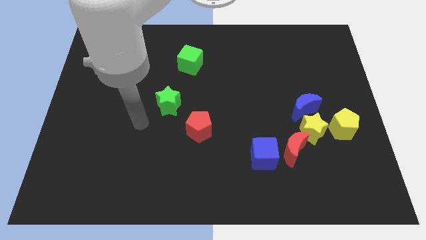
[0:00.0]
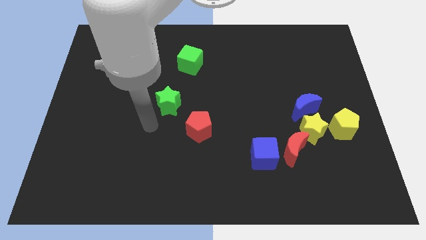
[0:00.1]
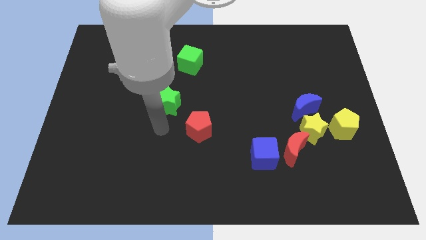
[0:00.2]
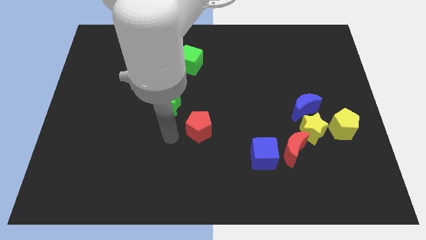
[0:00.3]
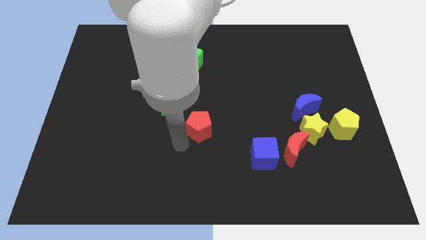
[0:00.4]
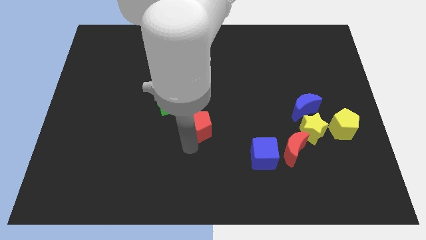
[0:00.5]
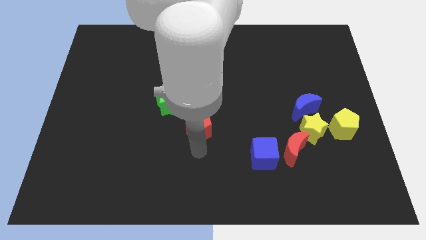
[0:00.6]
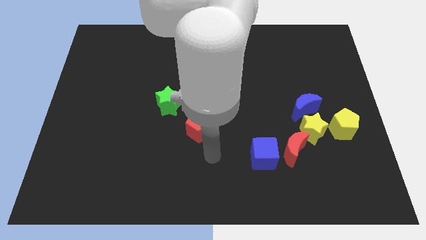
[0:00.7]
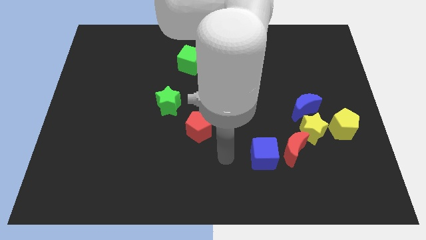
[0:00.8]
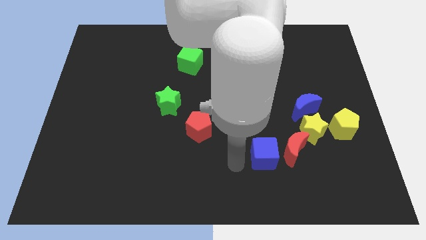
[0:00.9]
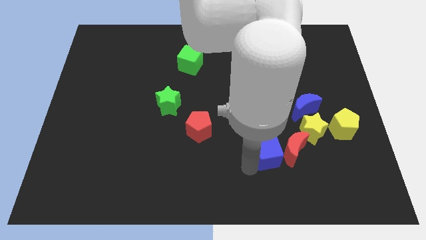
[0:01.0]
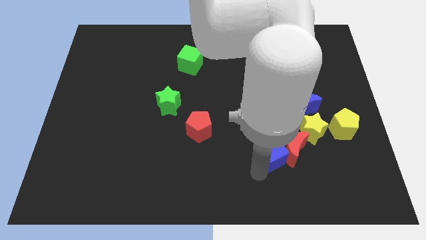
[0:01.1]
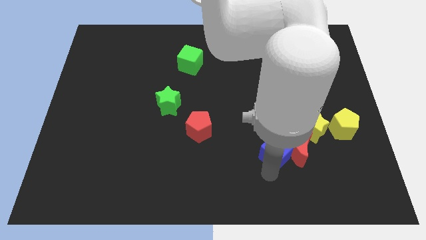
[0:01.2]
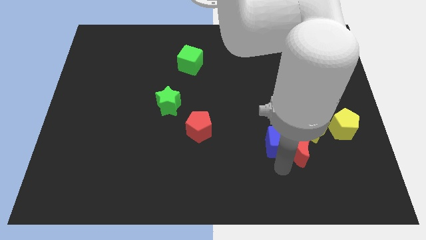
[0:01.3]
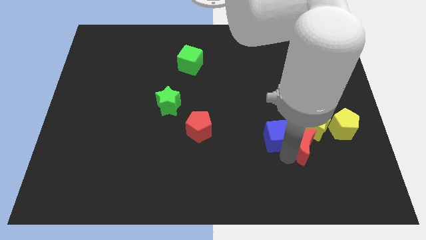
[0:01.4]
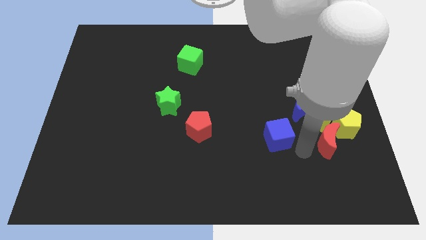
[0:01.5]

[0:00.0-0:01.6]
pull the blue cube apart from the red moon

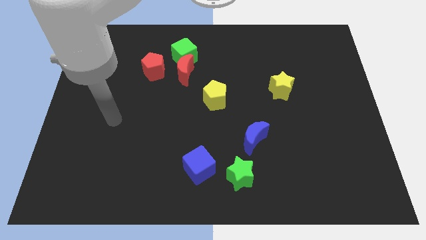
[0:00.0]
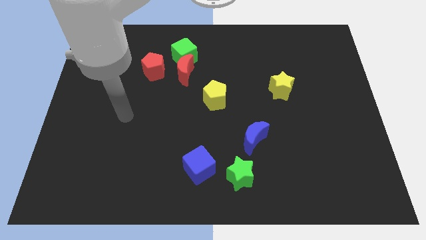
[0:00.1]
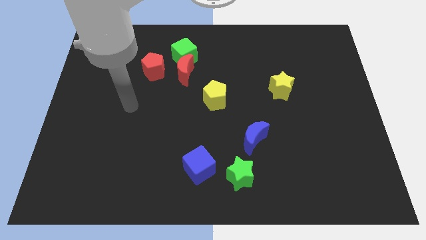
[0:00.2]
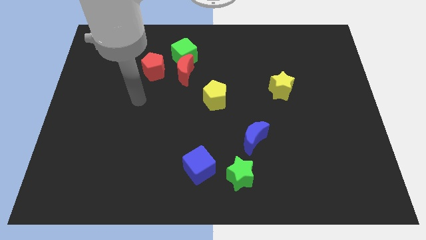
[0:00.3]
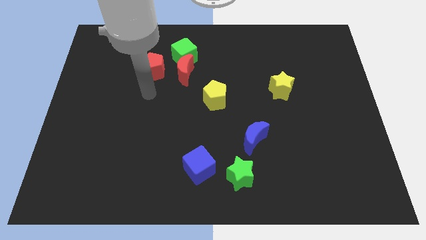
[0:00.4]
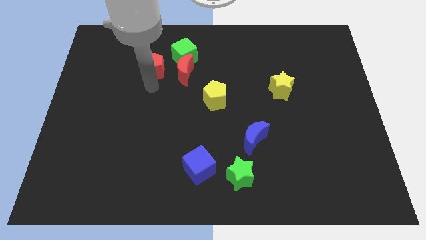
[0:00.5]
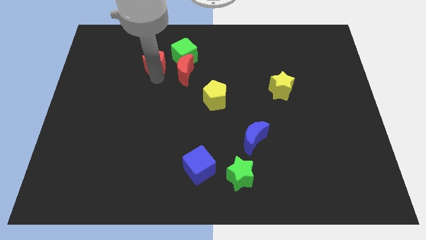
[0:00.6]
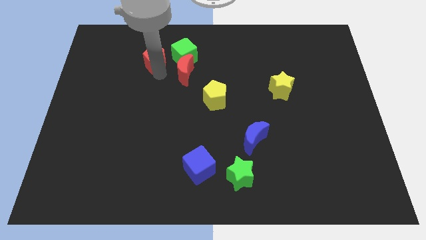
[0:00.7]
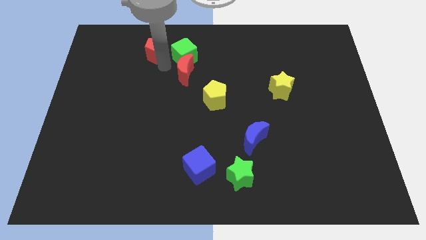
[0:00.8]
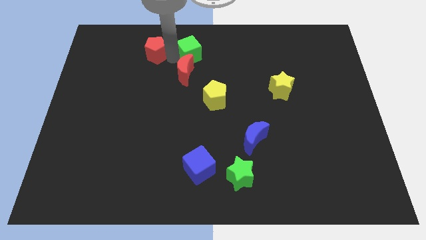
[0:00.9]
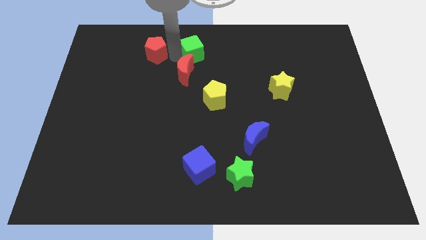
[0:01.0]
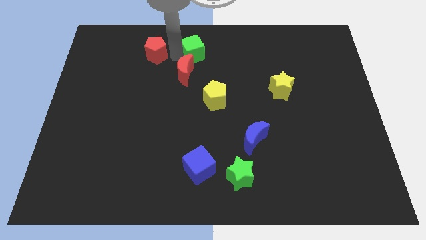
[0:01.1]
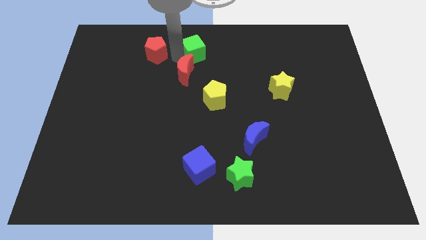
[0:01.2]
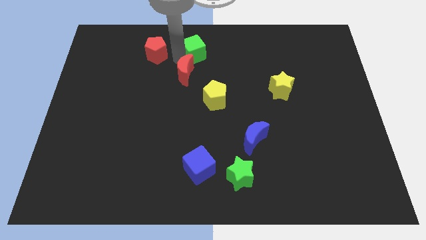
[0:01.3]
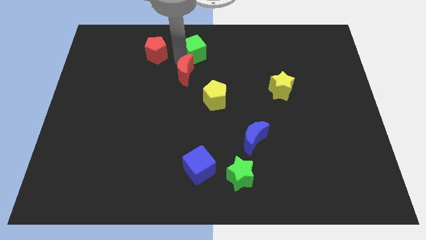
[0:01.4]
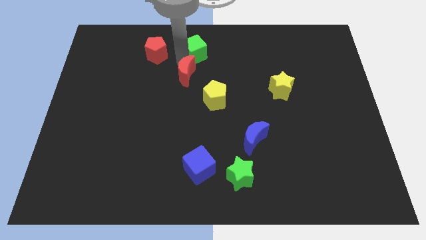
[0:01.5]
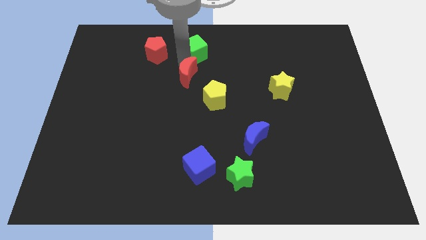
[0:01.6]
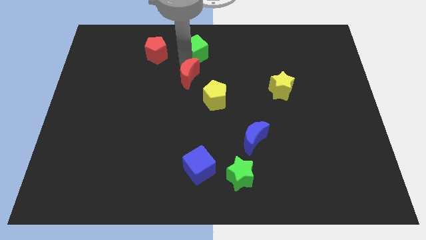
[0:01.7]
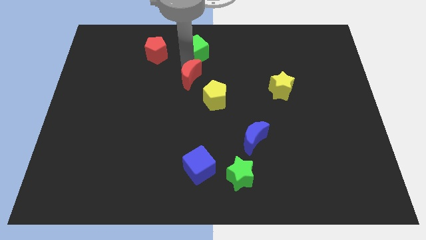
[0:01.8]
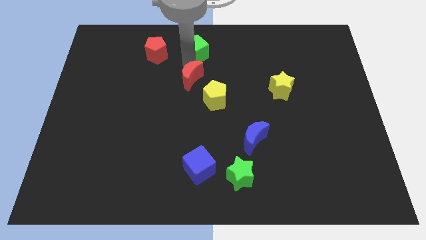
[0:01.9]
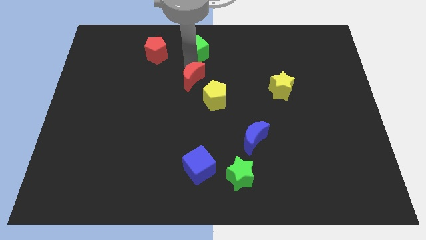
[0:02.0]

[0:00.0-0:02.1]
pull the red moon apart from the green cube and red pentagon

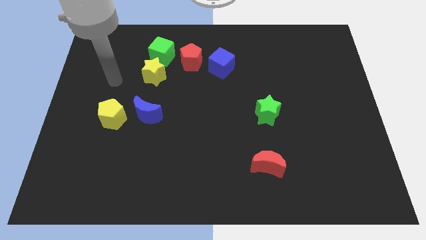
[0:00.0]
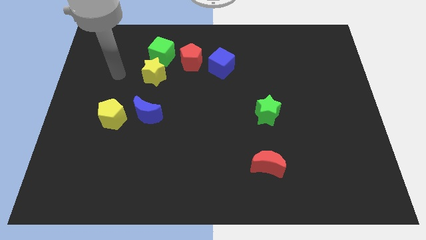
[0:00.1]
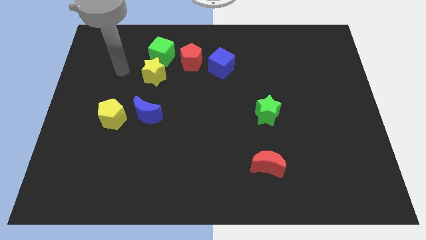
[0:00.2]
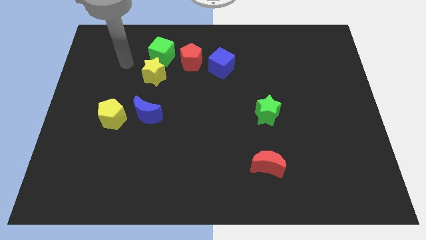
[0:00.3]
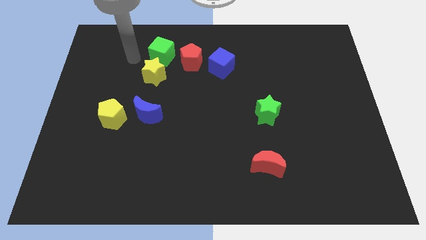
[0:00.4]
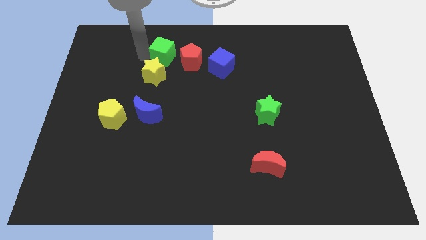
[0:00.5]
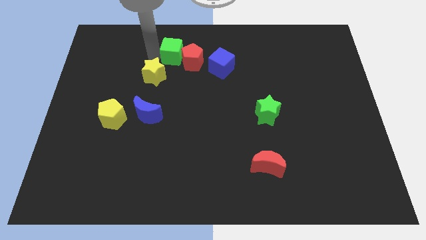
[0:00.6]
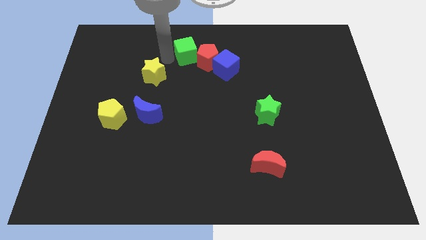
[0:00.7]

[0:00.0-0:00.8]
pull the yellow star apart from the green cube

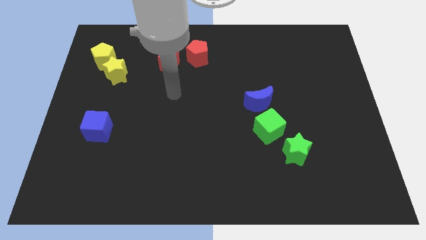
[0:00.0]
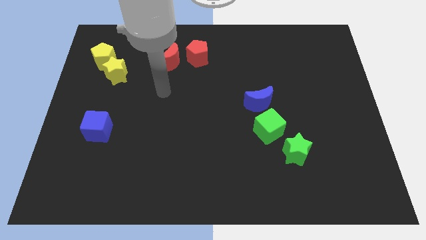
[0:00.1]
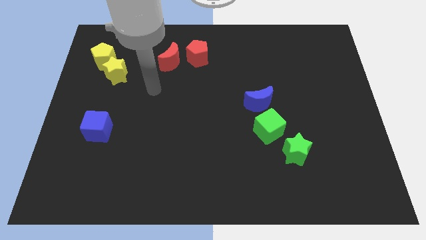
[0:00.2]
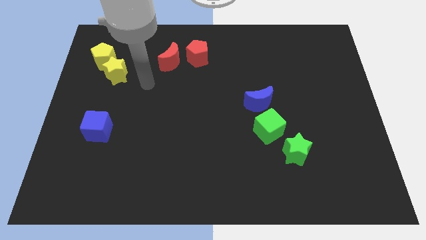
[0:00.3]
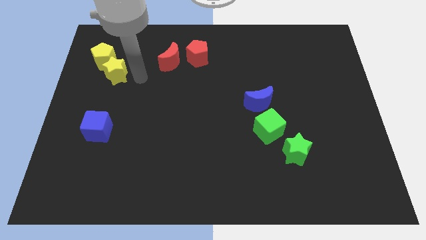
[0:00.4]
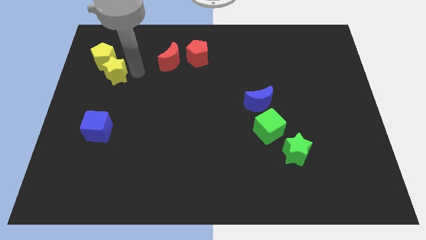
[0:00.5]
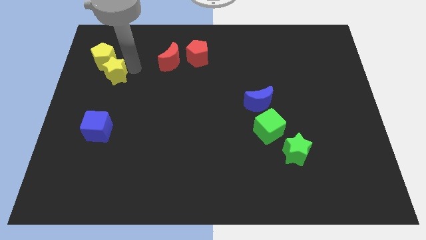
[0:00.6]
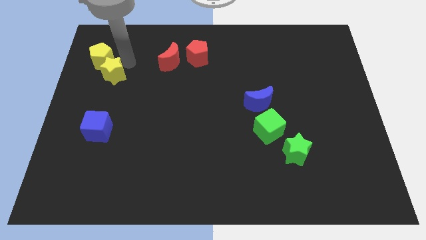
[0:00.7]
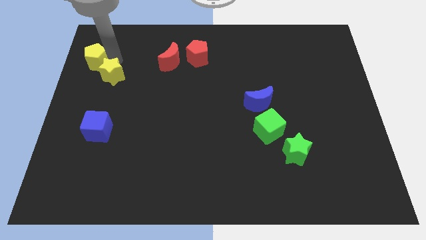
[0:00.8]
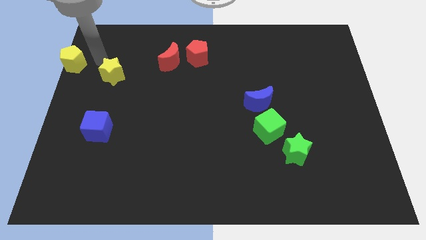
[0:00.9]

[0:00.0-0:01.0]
pull the yellow star apart from the yellow pentagon

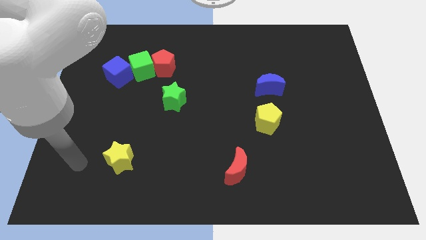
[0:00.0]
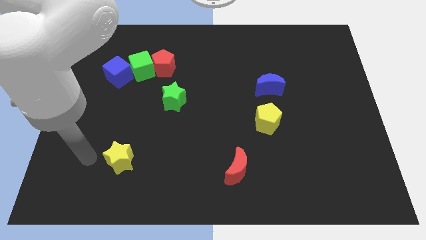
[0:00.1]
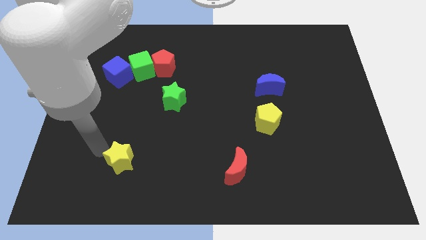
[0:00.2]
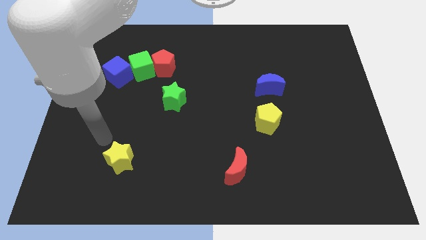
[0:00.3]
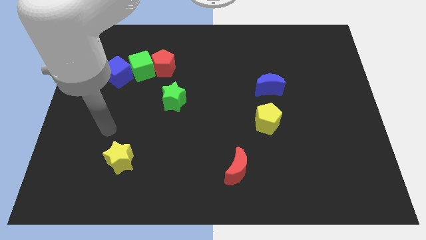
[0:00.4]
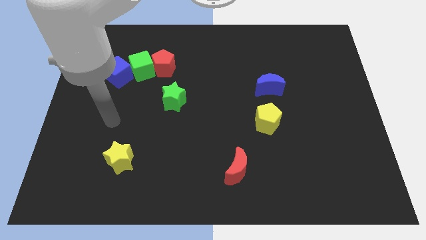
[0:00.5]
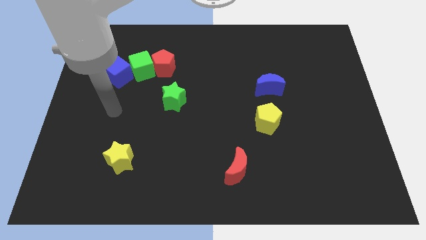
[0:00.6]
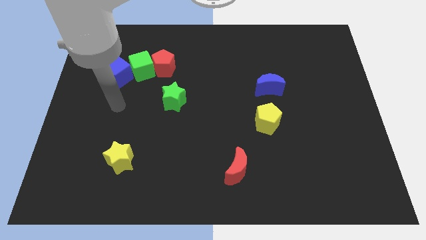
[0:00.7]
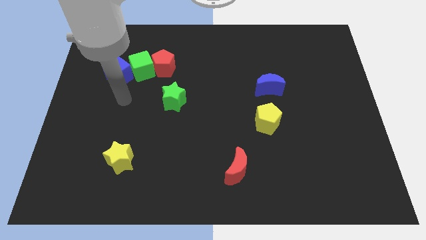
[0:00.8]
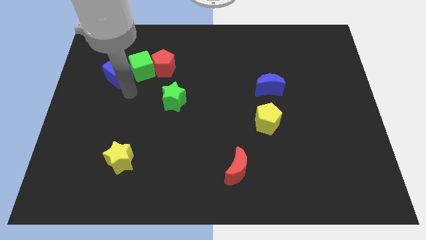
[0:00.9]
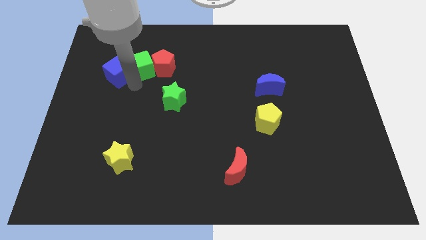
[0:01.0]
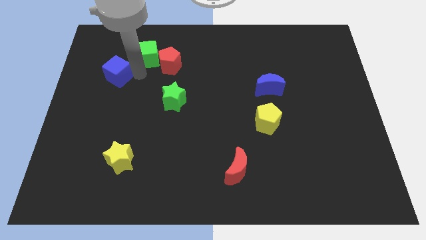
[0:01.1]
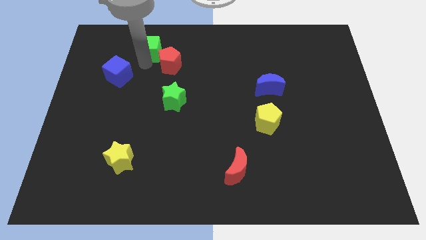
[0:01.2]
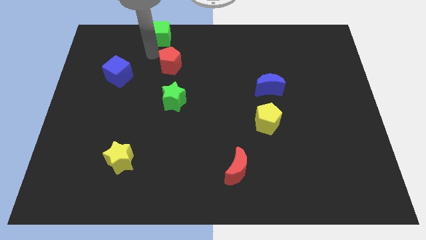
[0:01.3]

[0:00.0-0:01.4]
move the red pentagon away from the green cube

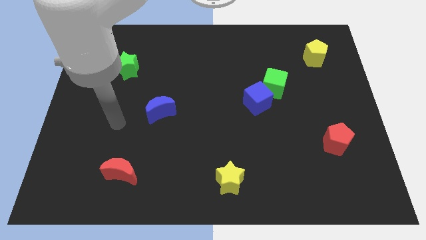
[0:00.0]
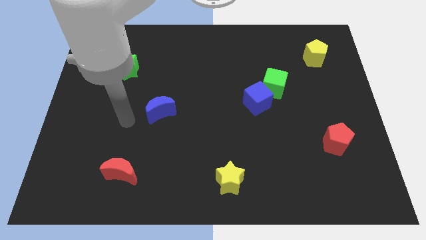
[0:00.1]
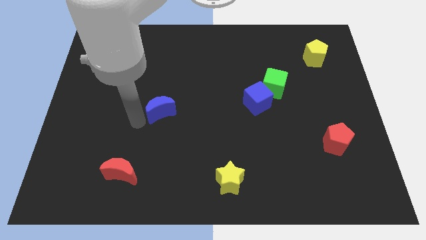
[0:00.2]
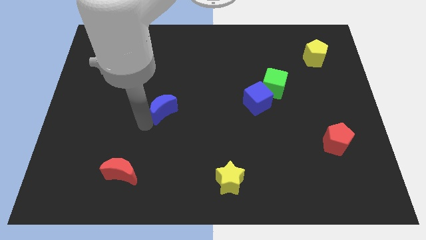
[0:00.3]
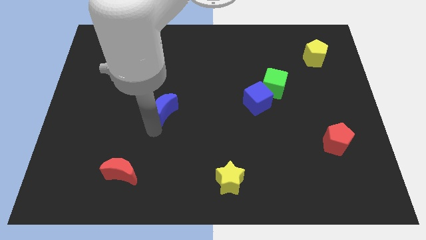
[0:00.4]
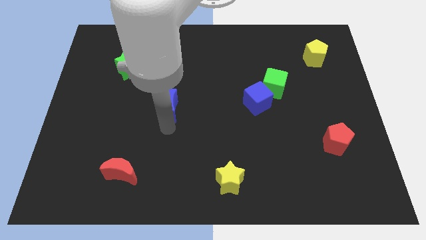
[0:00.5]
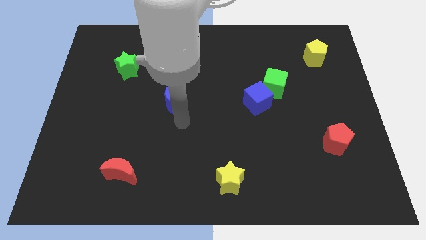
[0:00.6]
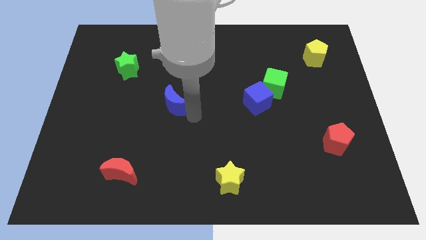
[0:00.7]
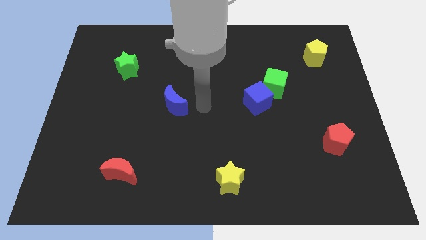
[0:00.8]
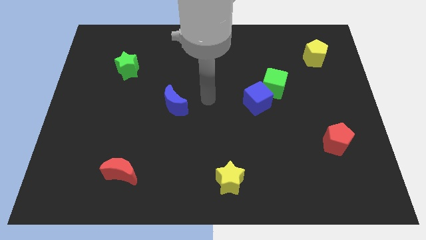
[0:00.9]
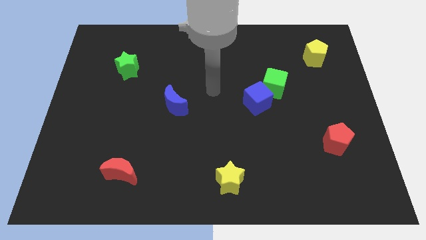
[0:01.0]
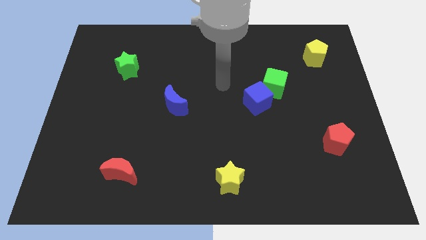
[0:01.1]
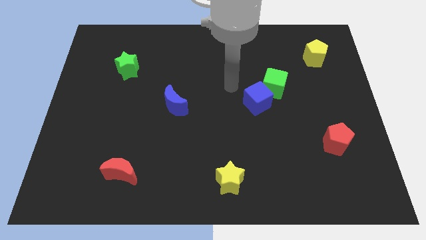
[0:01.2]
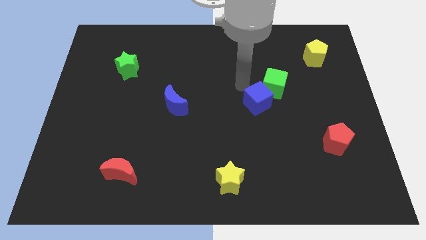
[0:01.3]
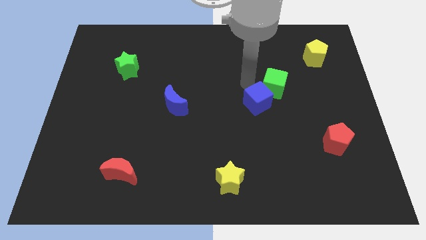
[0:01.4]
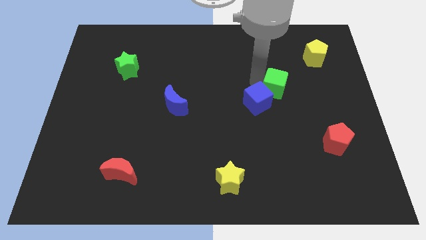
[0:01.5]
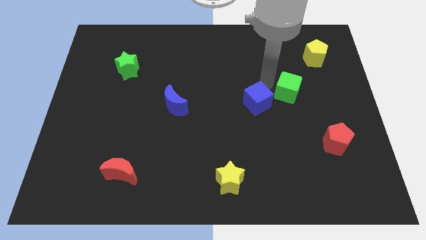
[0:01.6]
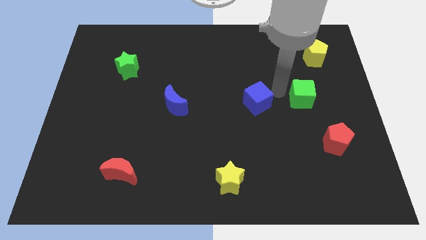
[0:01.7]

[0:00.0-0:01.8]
move the blue cube away from the green cube

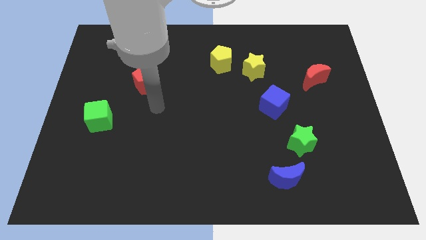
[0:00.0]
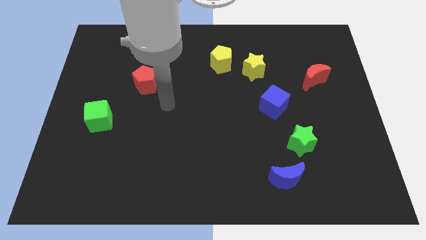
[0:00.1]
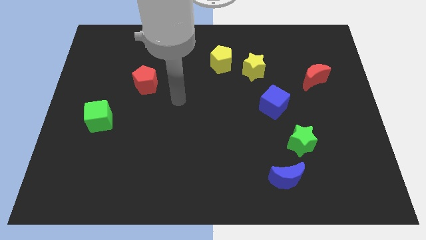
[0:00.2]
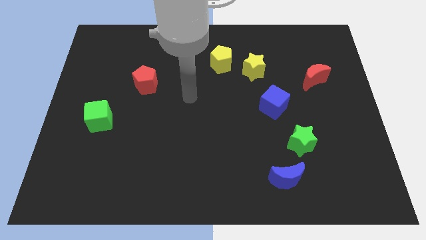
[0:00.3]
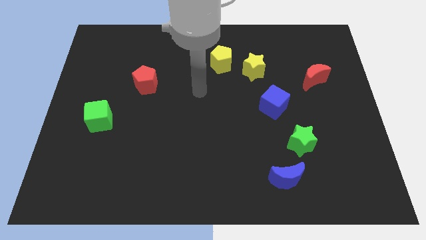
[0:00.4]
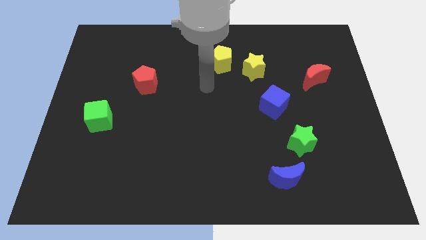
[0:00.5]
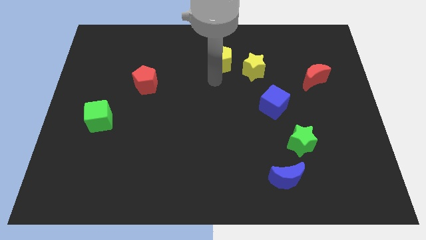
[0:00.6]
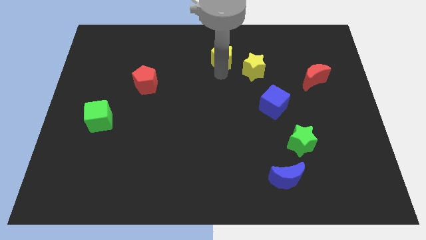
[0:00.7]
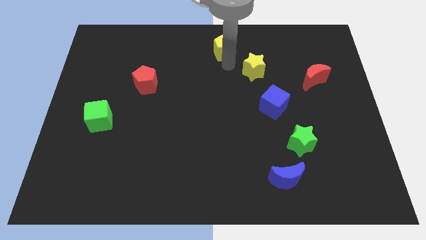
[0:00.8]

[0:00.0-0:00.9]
move the yellow star away from the yellow pentagon
